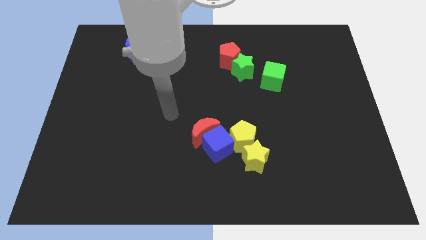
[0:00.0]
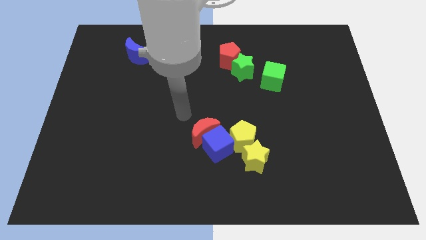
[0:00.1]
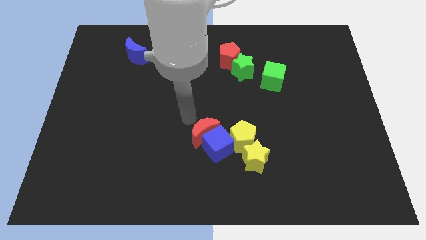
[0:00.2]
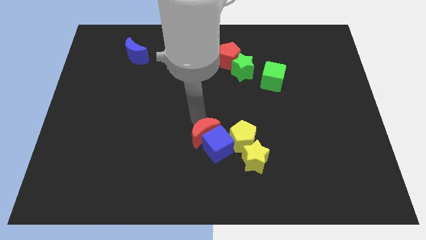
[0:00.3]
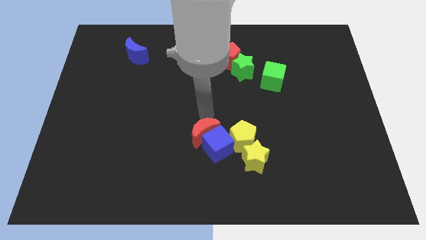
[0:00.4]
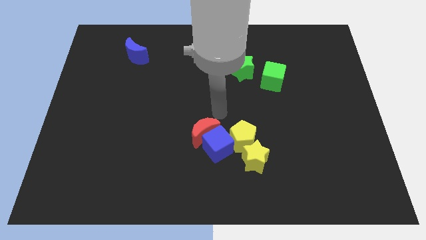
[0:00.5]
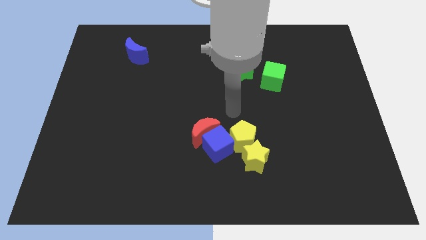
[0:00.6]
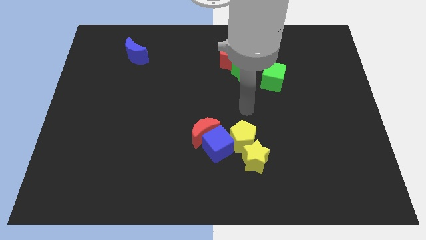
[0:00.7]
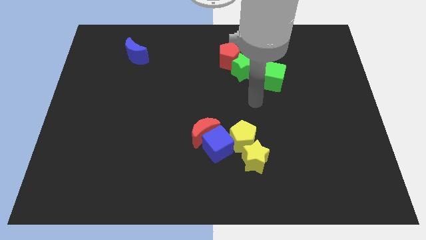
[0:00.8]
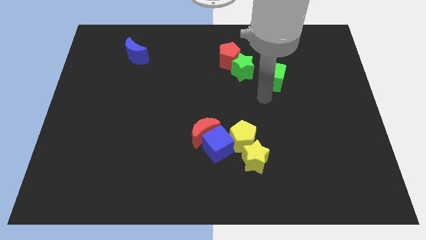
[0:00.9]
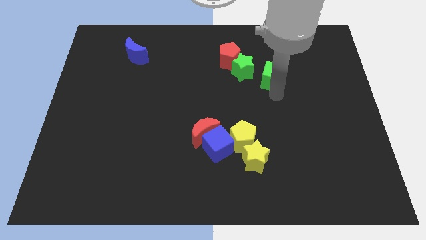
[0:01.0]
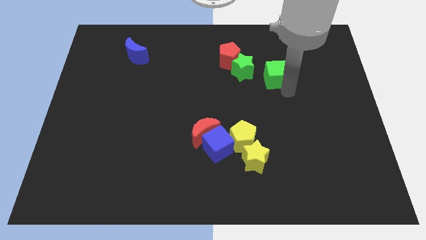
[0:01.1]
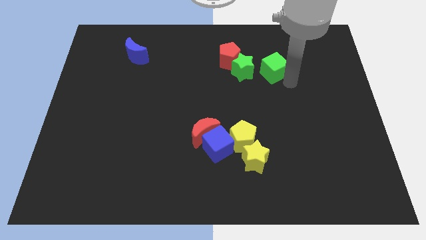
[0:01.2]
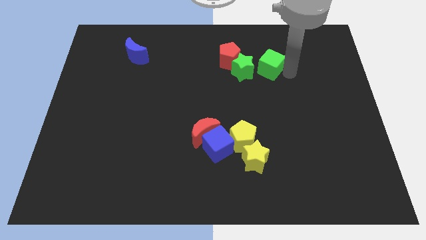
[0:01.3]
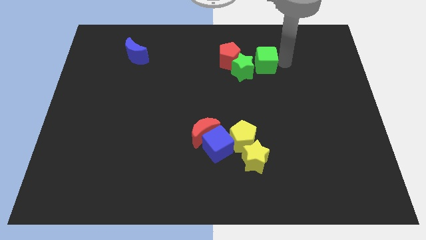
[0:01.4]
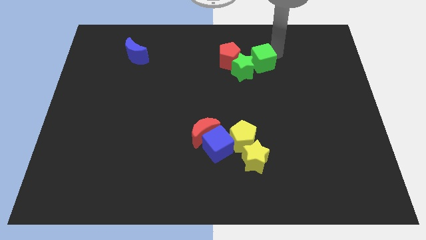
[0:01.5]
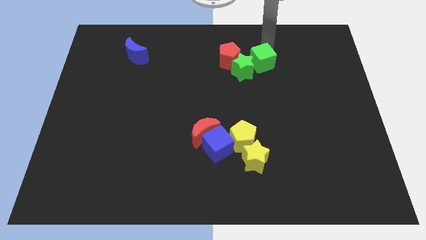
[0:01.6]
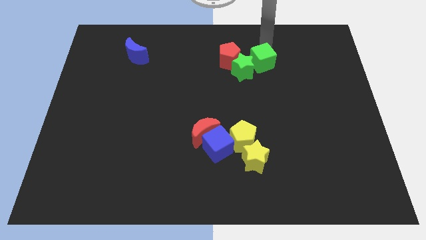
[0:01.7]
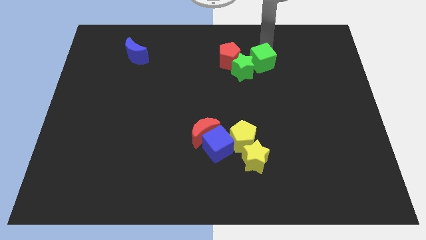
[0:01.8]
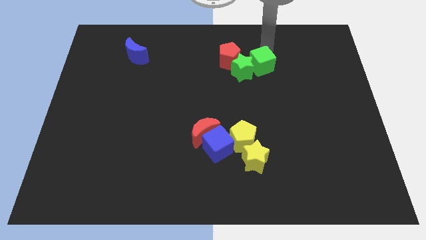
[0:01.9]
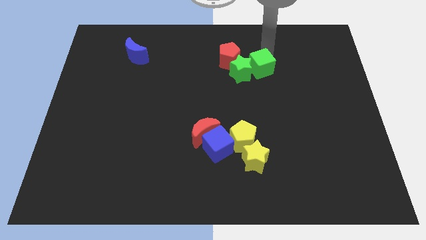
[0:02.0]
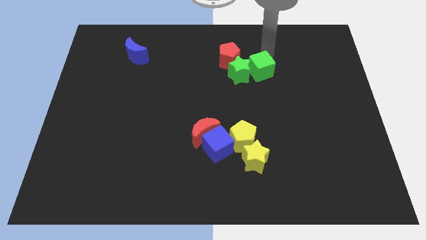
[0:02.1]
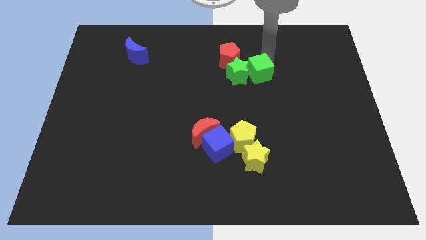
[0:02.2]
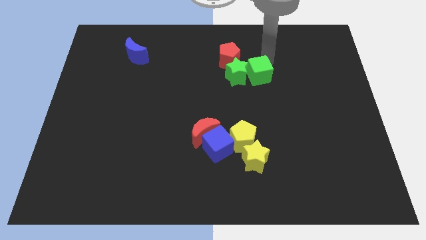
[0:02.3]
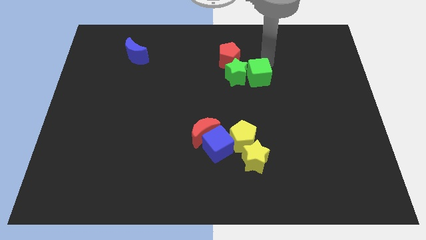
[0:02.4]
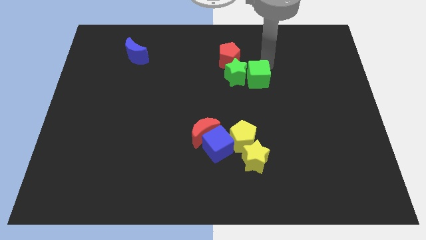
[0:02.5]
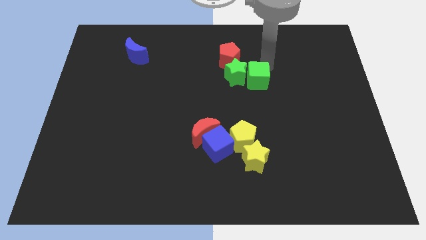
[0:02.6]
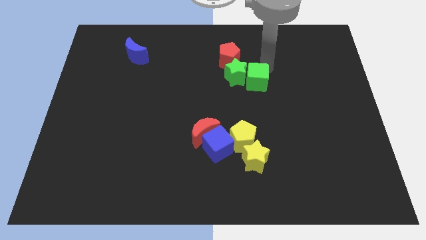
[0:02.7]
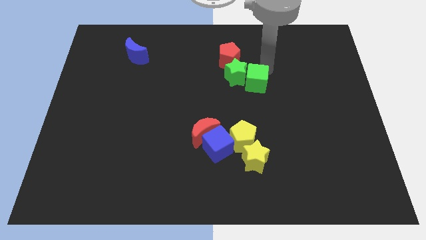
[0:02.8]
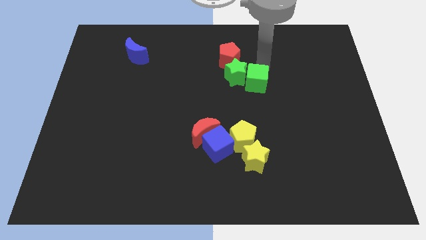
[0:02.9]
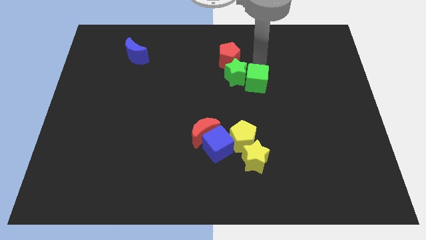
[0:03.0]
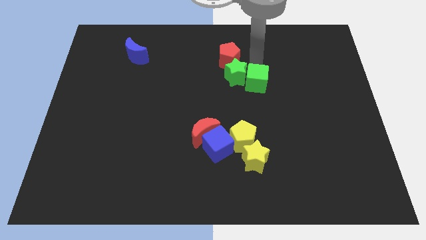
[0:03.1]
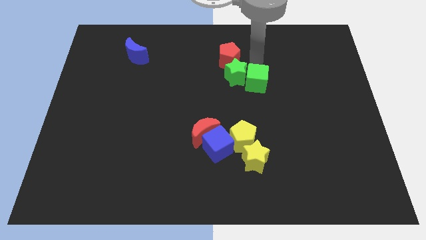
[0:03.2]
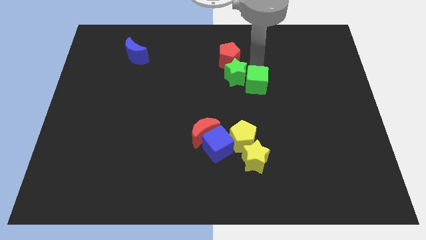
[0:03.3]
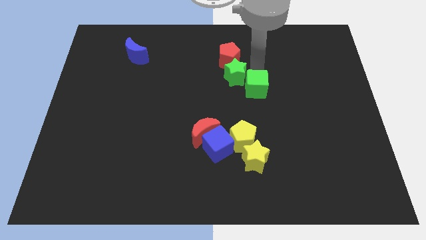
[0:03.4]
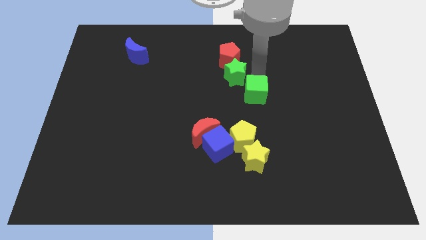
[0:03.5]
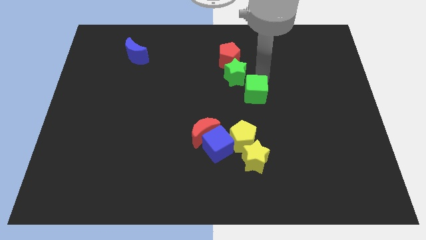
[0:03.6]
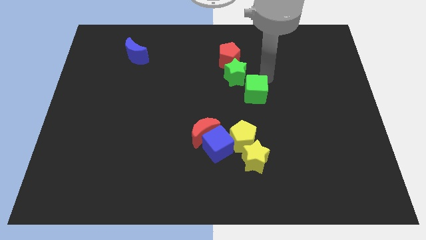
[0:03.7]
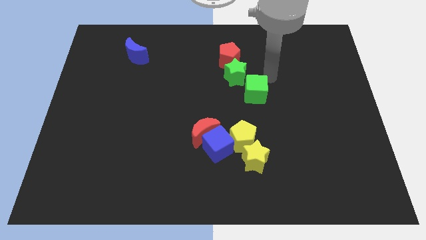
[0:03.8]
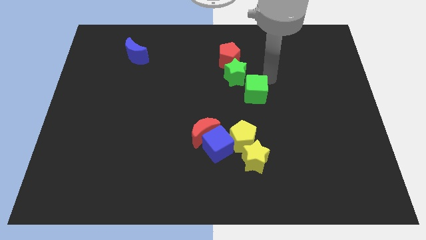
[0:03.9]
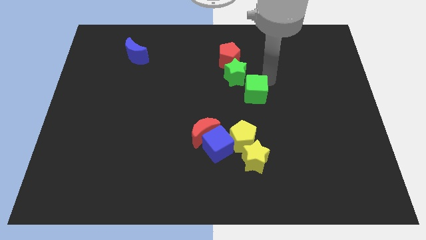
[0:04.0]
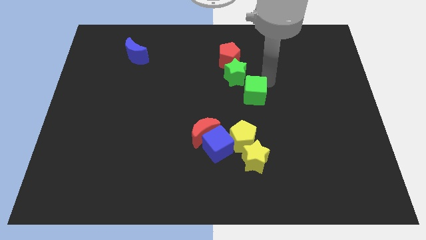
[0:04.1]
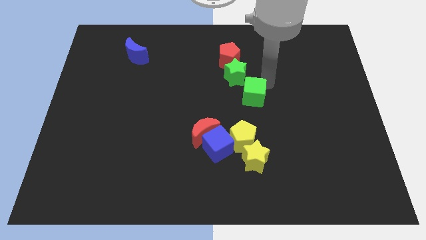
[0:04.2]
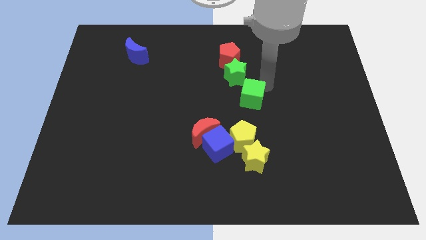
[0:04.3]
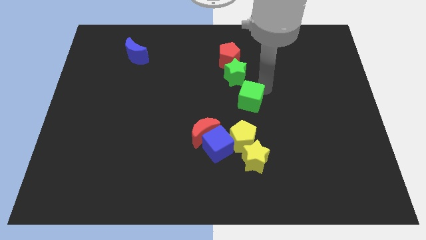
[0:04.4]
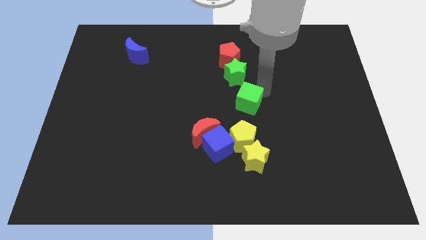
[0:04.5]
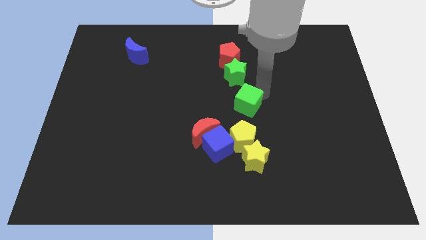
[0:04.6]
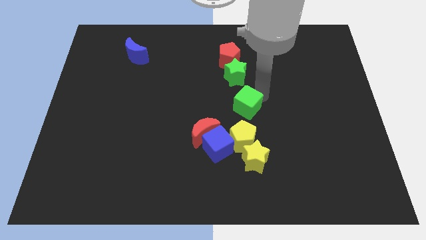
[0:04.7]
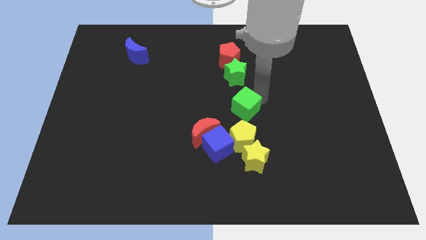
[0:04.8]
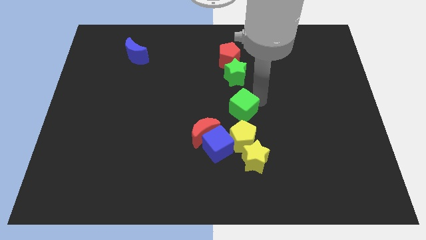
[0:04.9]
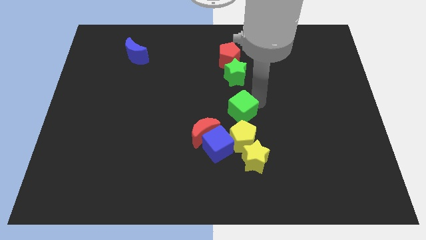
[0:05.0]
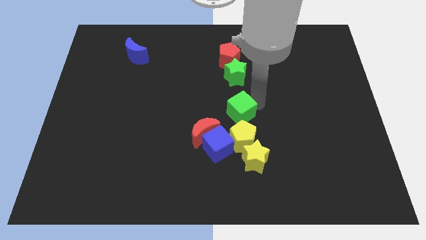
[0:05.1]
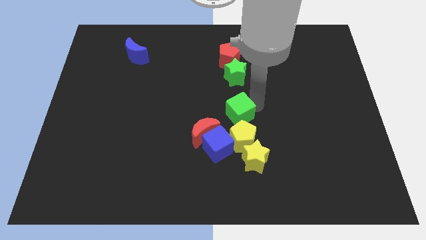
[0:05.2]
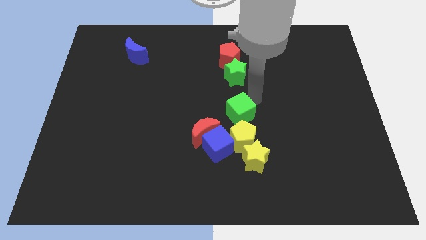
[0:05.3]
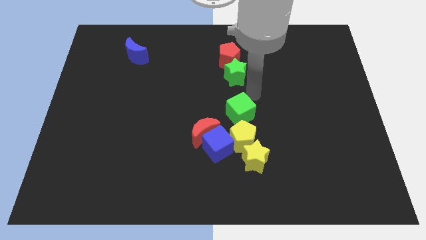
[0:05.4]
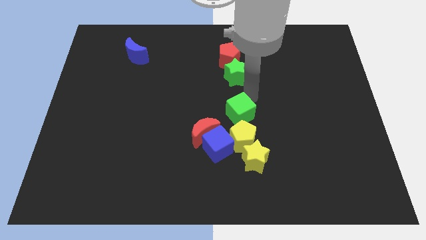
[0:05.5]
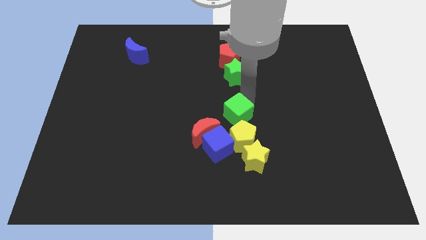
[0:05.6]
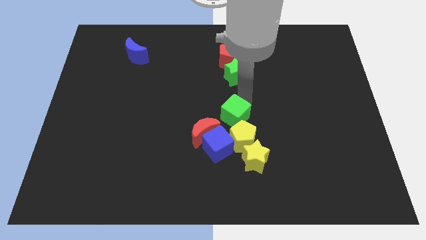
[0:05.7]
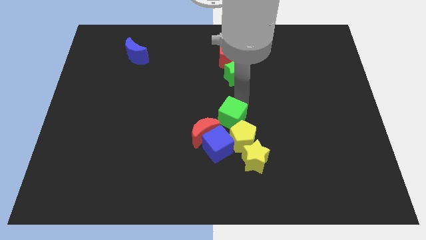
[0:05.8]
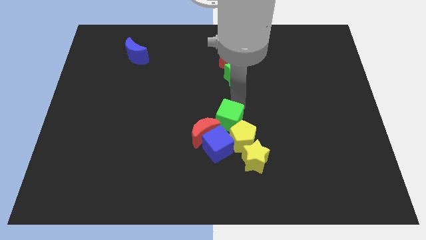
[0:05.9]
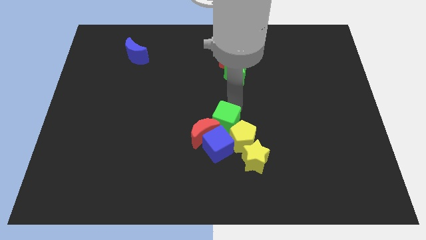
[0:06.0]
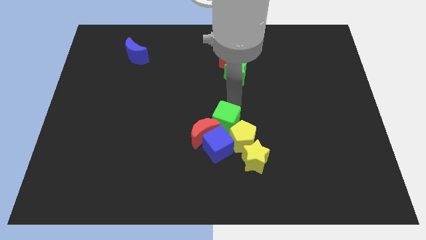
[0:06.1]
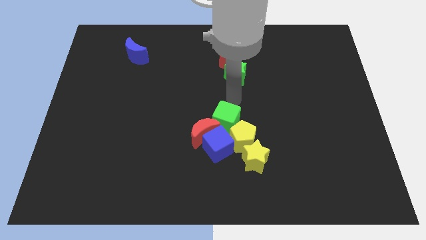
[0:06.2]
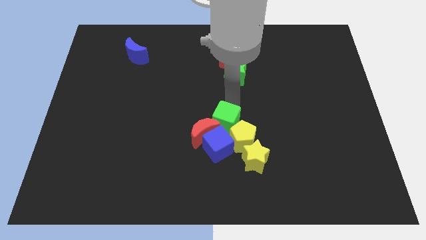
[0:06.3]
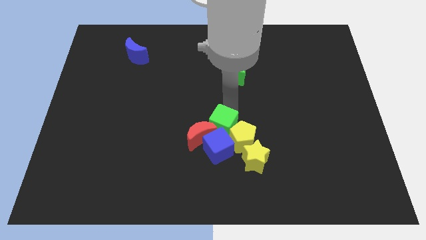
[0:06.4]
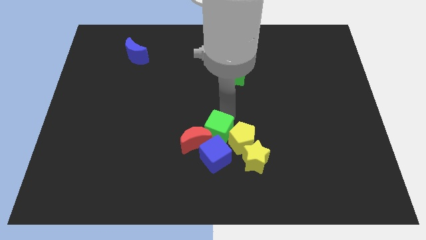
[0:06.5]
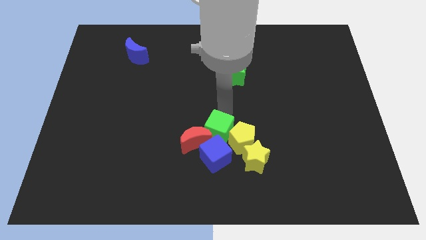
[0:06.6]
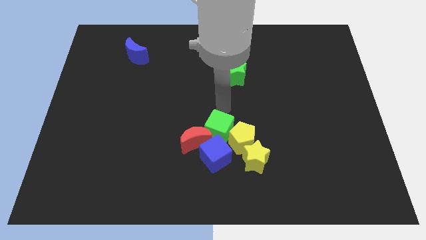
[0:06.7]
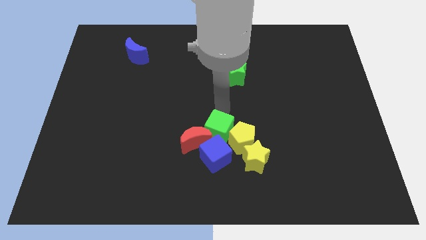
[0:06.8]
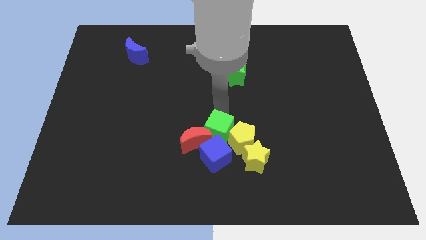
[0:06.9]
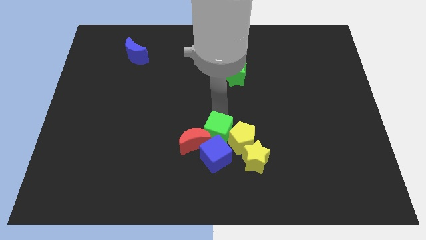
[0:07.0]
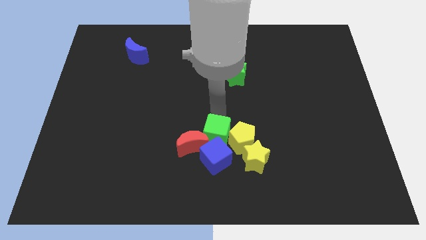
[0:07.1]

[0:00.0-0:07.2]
push the green cube next to the blue cube

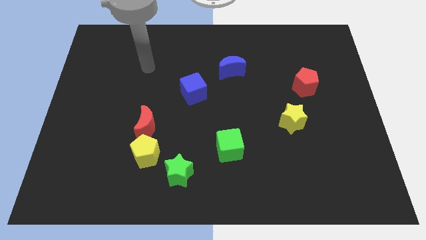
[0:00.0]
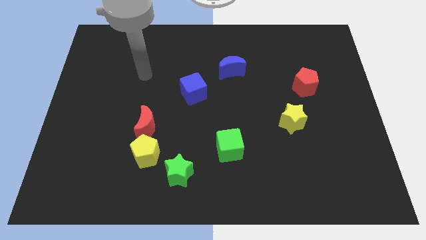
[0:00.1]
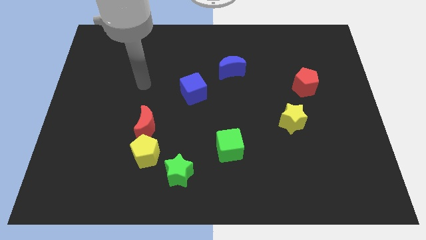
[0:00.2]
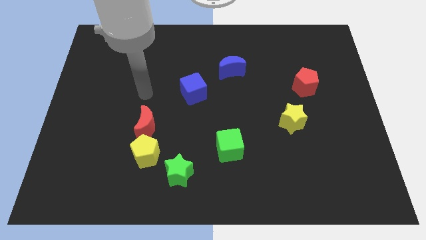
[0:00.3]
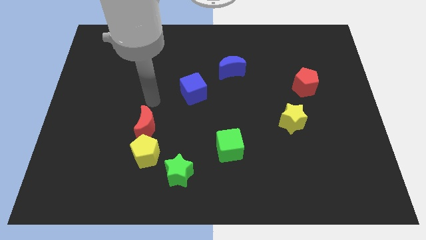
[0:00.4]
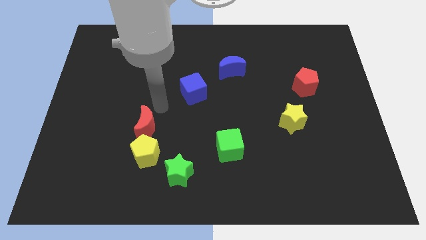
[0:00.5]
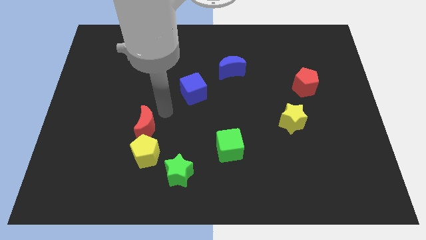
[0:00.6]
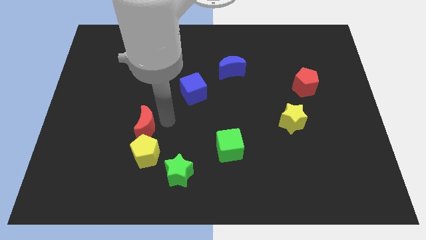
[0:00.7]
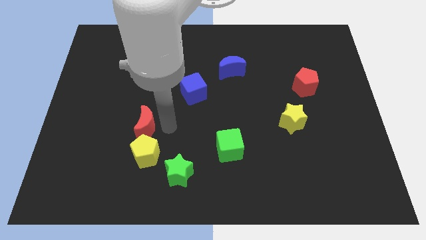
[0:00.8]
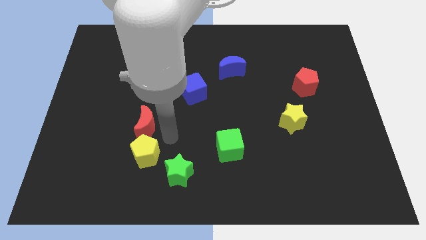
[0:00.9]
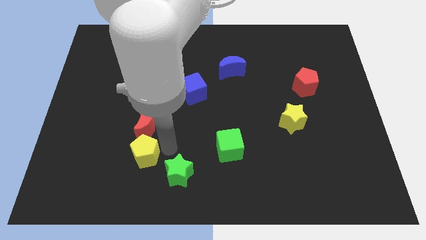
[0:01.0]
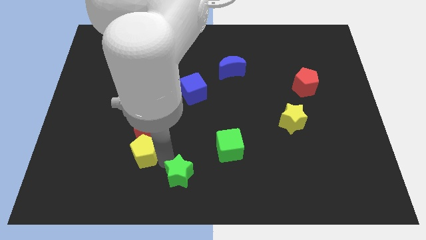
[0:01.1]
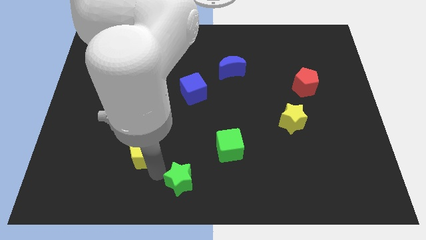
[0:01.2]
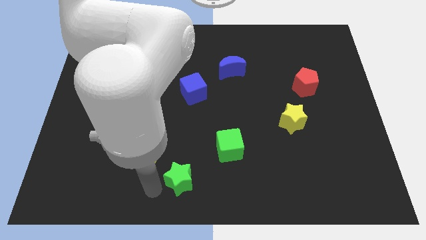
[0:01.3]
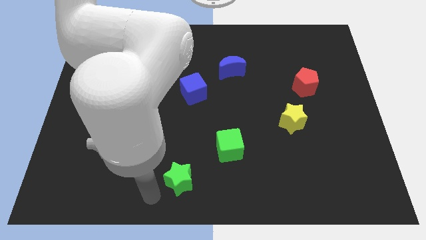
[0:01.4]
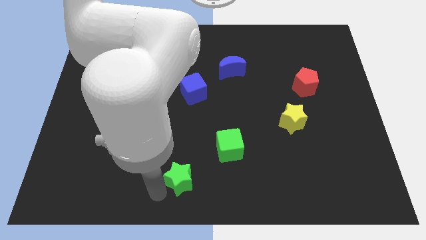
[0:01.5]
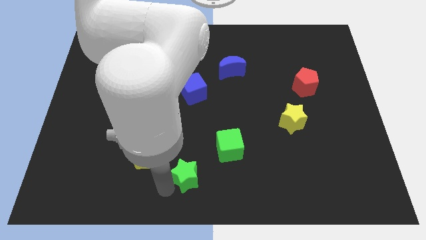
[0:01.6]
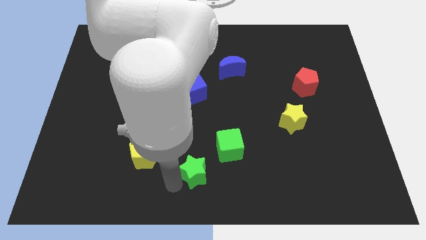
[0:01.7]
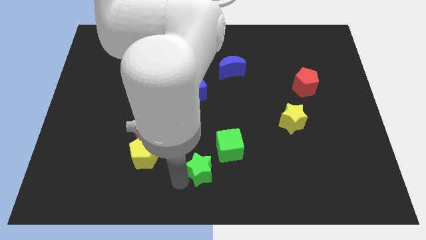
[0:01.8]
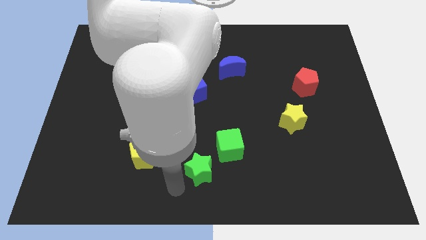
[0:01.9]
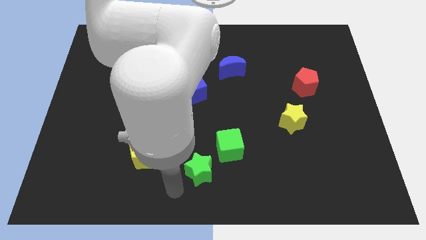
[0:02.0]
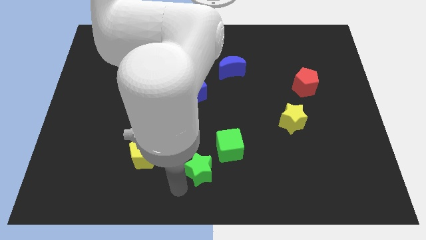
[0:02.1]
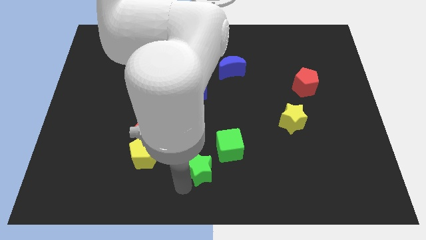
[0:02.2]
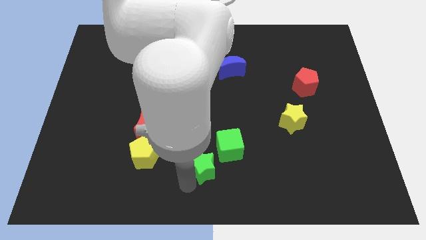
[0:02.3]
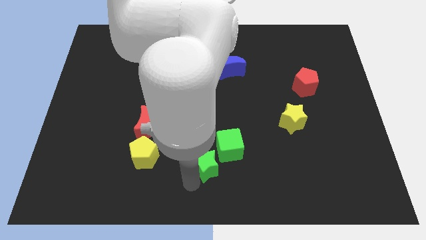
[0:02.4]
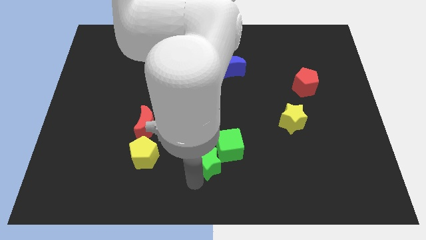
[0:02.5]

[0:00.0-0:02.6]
push the green star close to the green cube
